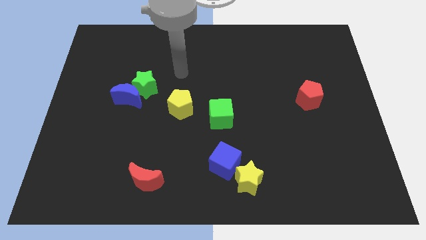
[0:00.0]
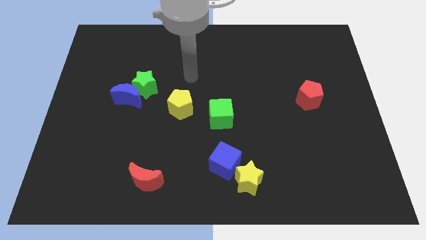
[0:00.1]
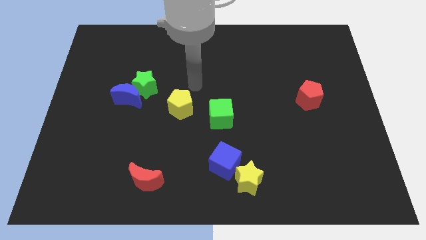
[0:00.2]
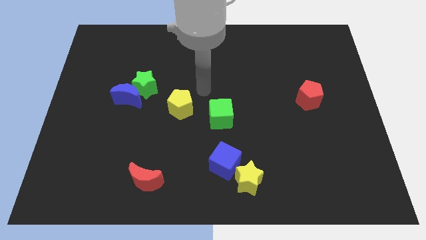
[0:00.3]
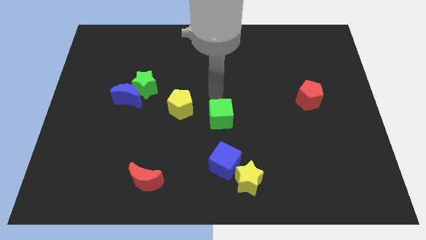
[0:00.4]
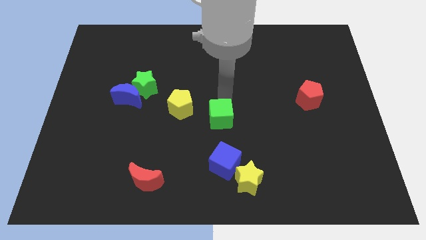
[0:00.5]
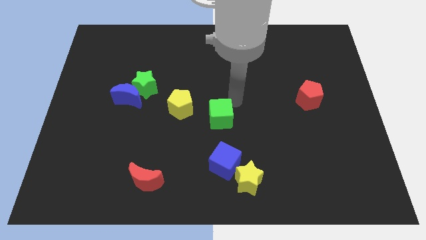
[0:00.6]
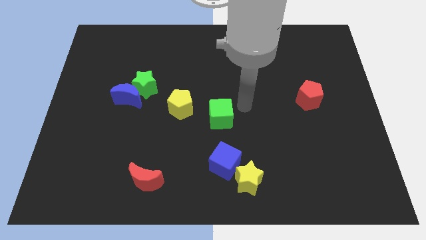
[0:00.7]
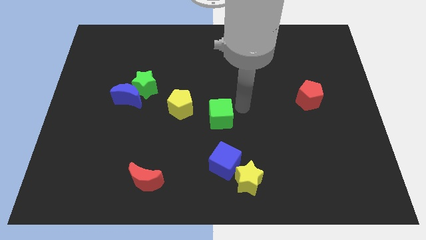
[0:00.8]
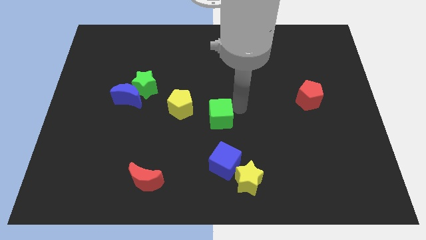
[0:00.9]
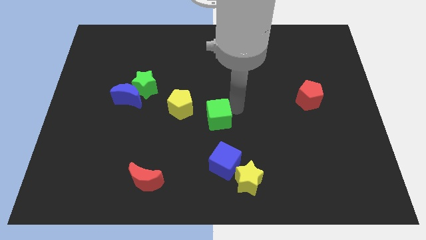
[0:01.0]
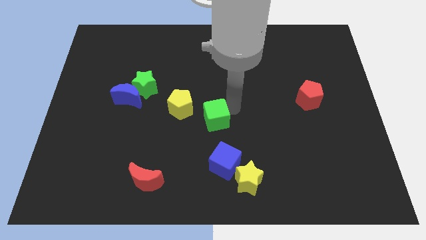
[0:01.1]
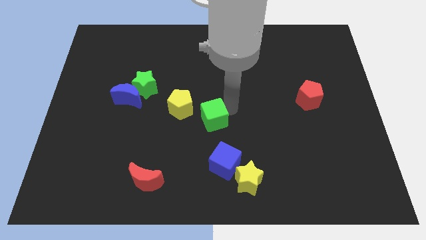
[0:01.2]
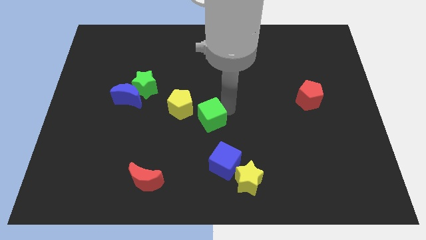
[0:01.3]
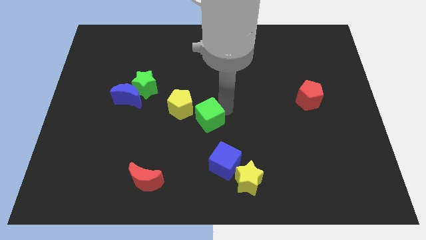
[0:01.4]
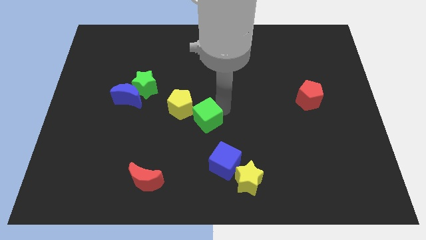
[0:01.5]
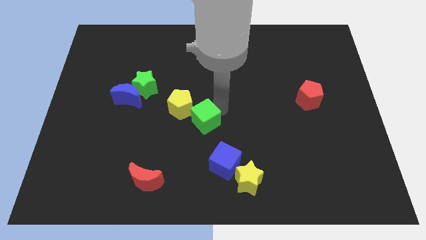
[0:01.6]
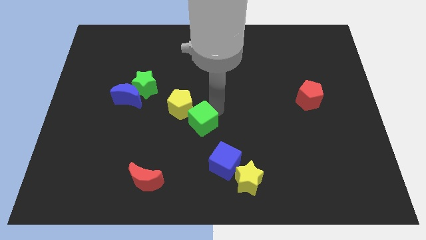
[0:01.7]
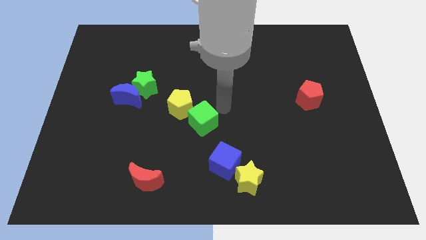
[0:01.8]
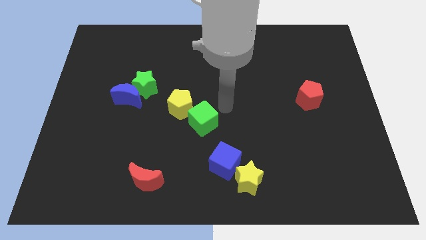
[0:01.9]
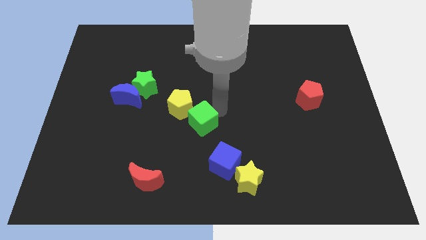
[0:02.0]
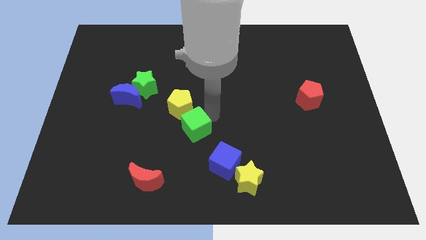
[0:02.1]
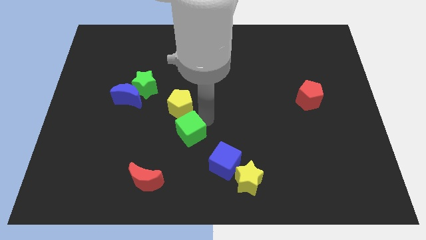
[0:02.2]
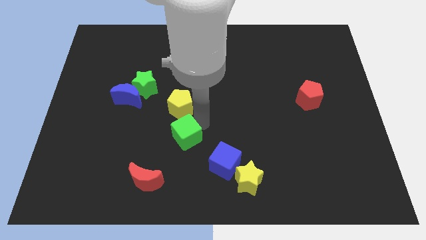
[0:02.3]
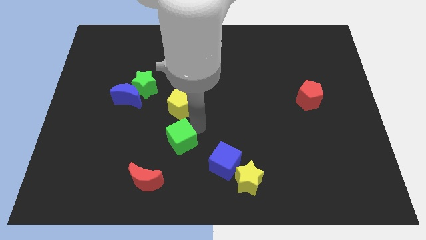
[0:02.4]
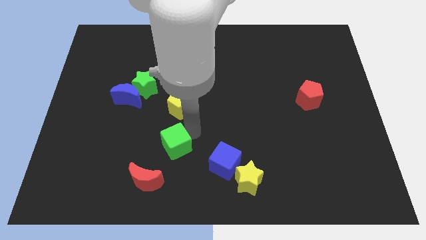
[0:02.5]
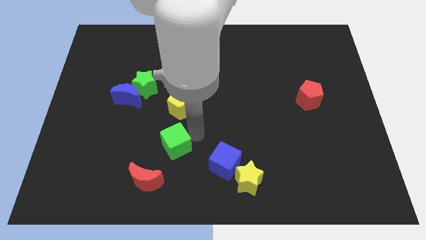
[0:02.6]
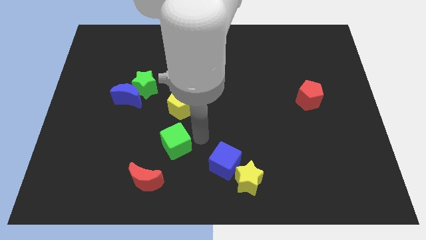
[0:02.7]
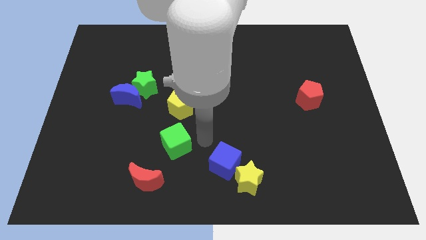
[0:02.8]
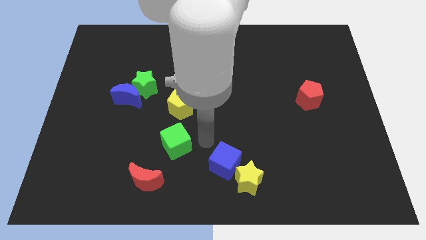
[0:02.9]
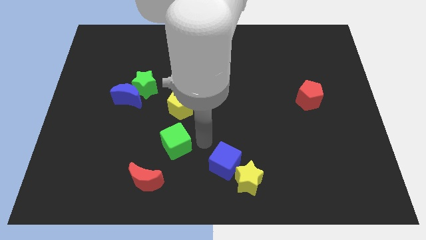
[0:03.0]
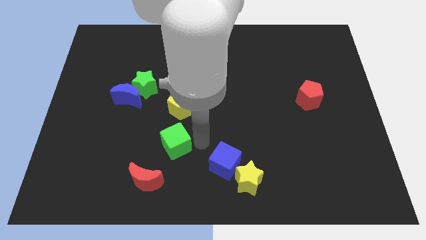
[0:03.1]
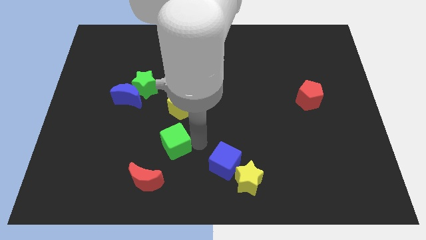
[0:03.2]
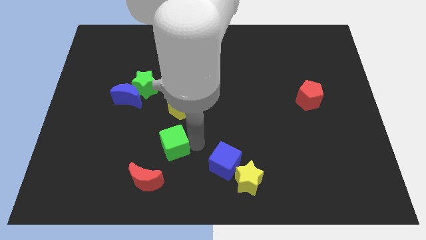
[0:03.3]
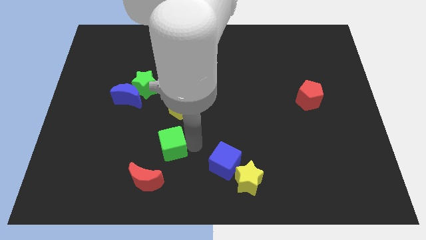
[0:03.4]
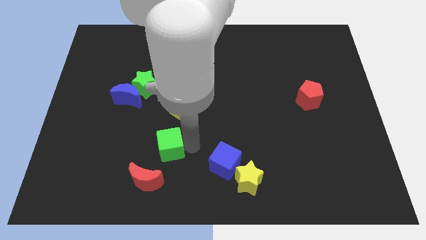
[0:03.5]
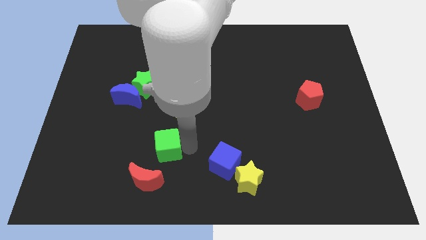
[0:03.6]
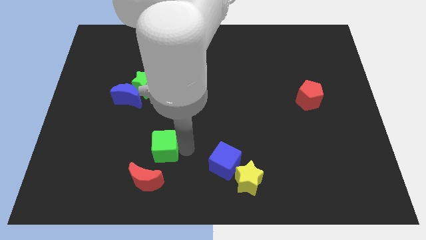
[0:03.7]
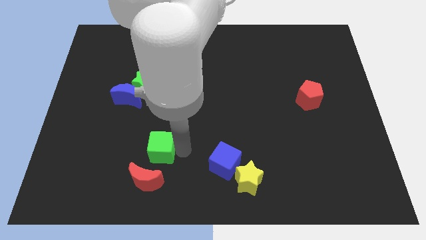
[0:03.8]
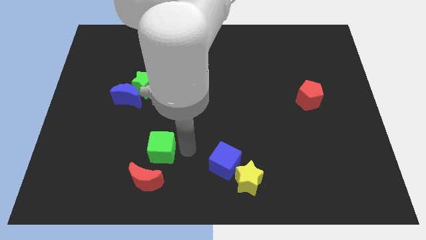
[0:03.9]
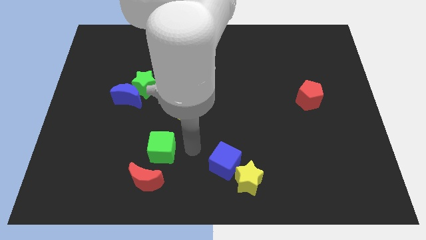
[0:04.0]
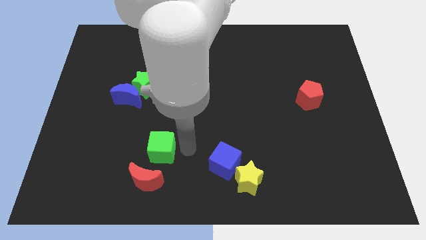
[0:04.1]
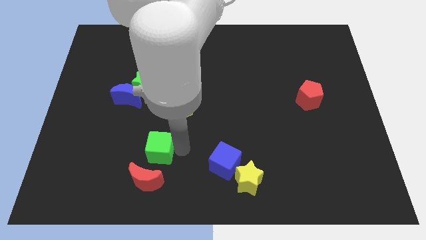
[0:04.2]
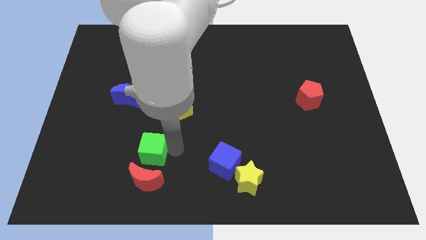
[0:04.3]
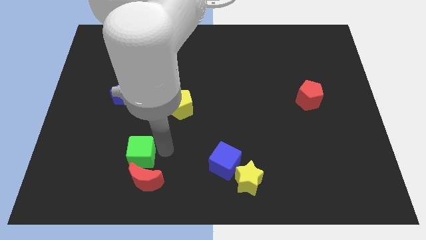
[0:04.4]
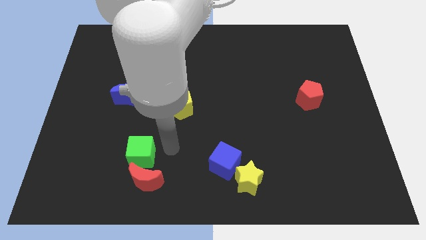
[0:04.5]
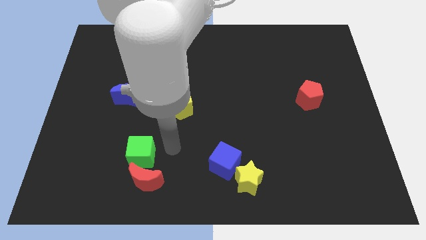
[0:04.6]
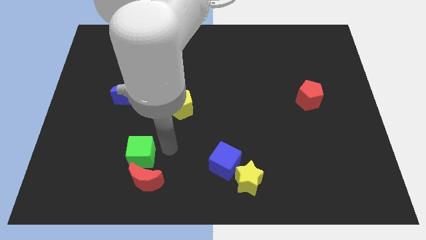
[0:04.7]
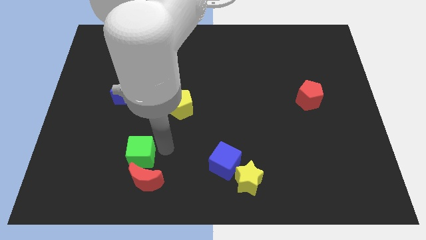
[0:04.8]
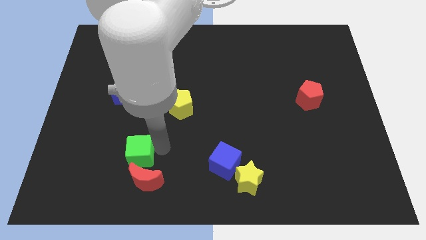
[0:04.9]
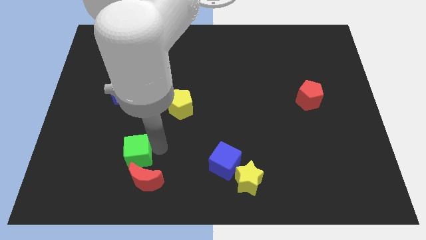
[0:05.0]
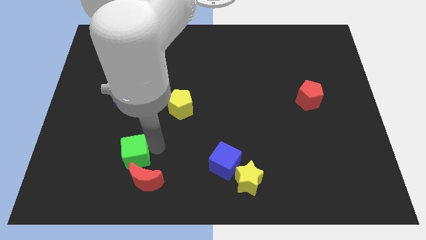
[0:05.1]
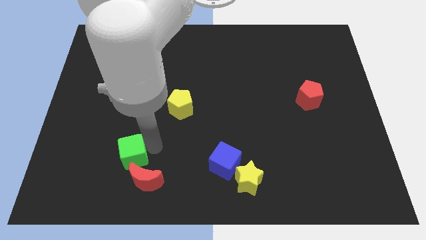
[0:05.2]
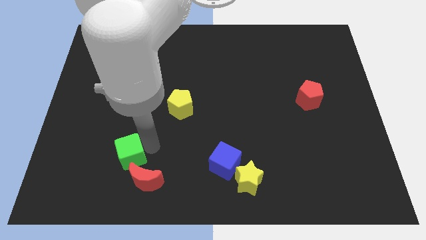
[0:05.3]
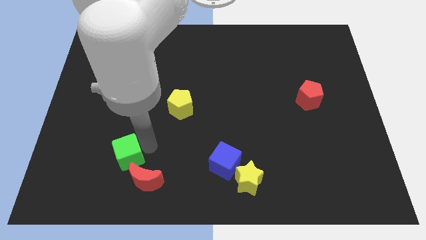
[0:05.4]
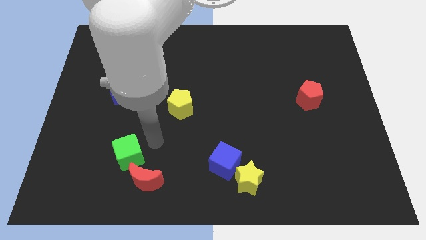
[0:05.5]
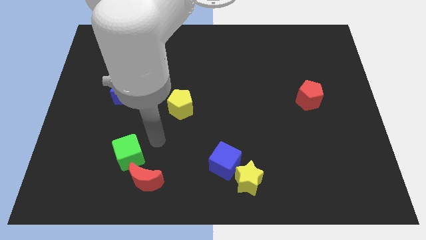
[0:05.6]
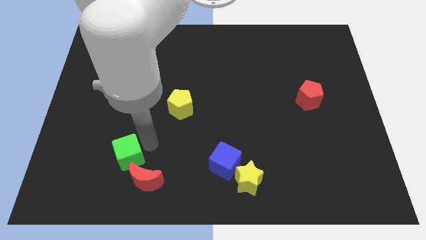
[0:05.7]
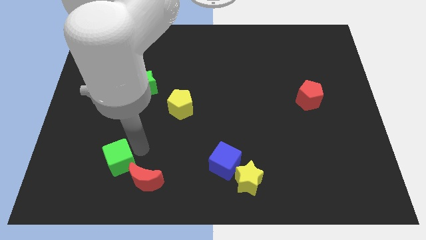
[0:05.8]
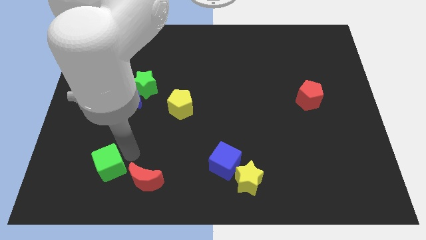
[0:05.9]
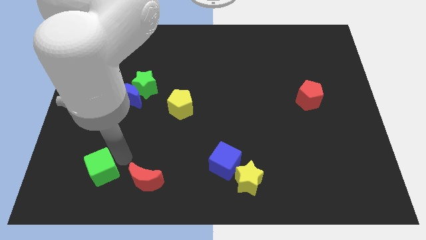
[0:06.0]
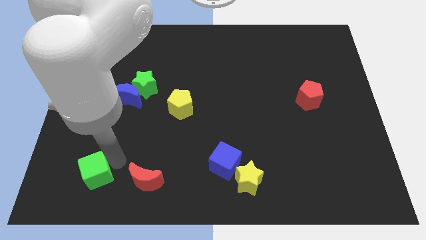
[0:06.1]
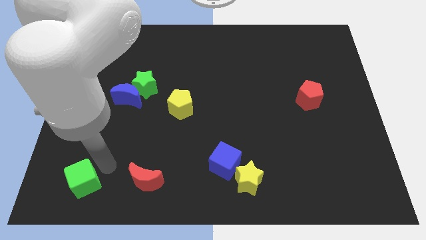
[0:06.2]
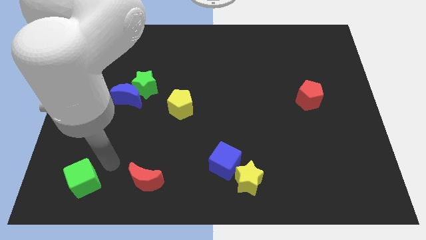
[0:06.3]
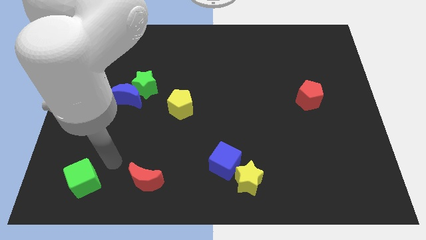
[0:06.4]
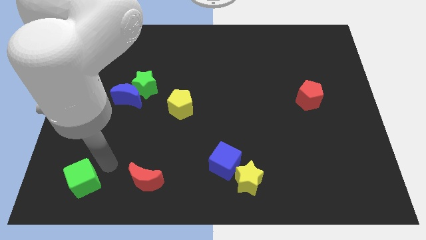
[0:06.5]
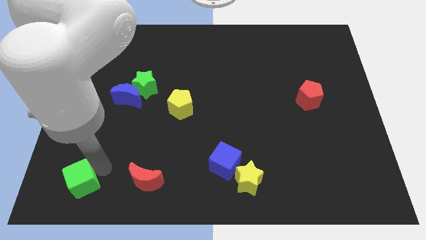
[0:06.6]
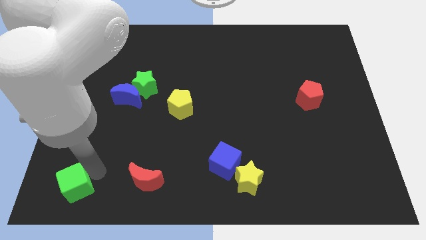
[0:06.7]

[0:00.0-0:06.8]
move the green cube to the lower left corner
